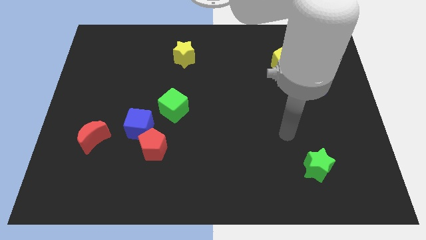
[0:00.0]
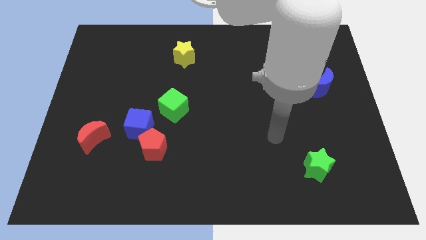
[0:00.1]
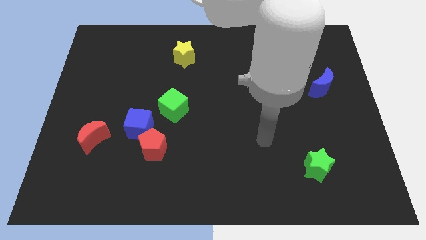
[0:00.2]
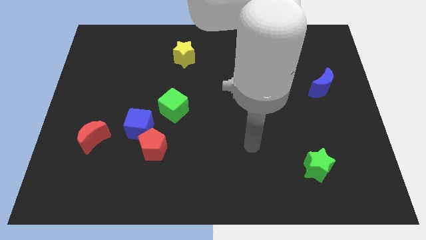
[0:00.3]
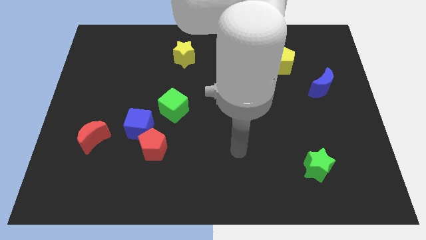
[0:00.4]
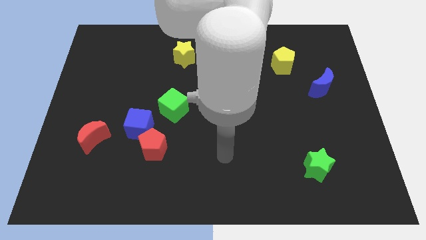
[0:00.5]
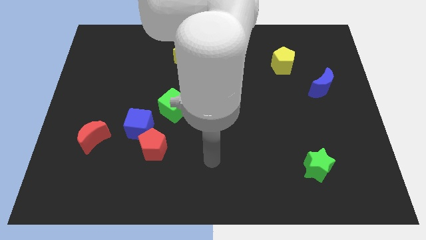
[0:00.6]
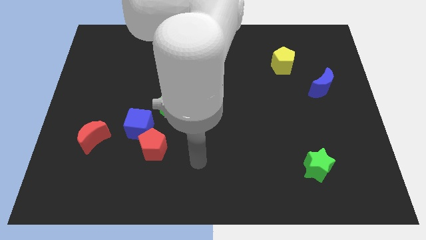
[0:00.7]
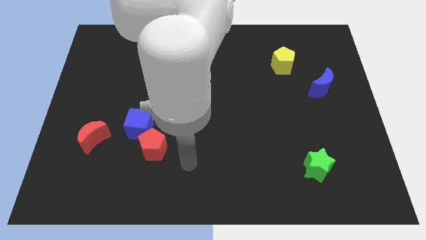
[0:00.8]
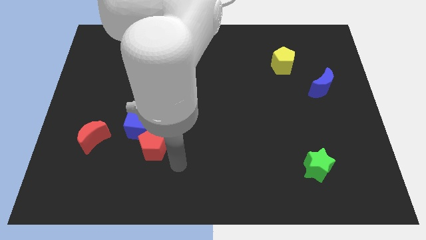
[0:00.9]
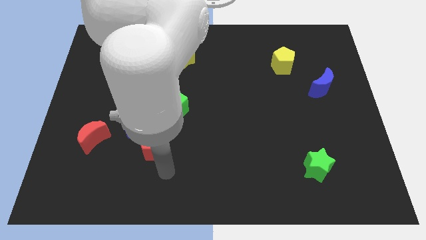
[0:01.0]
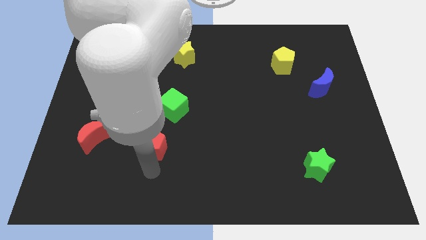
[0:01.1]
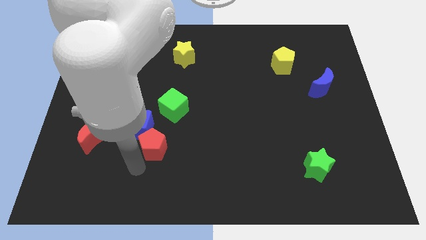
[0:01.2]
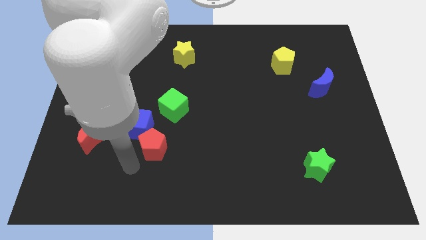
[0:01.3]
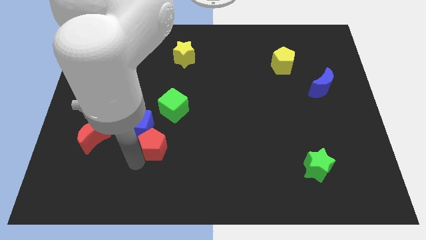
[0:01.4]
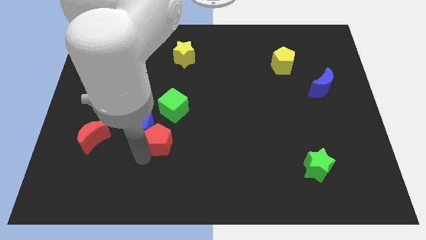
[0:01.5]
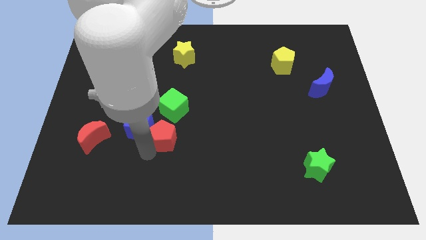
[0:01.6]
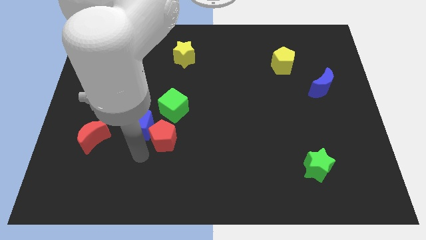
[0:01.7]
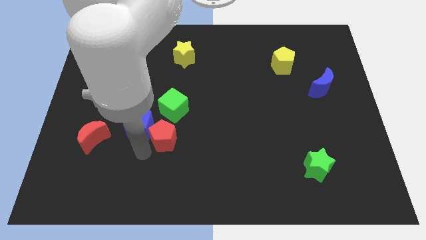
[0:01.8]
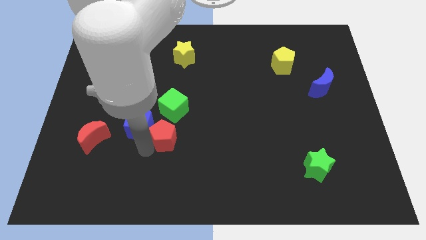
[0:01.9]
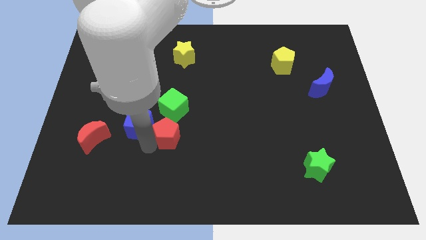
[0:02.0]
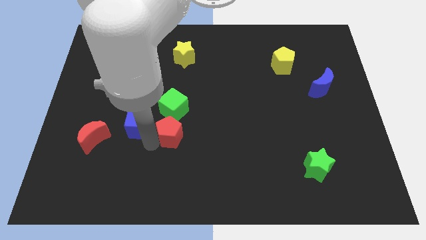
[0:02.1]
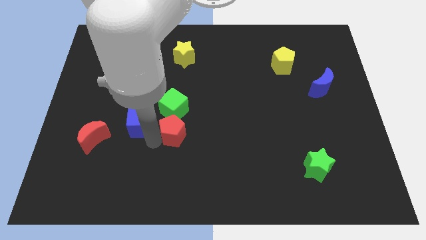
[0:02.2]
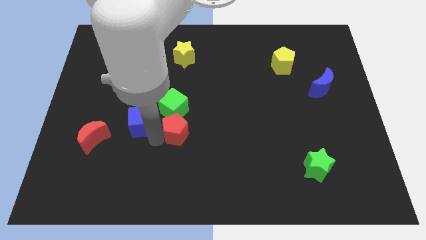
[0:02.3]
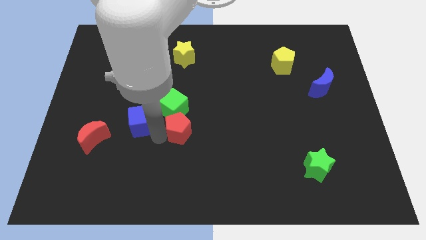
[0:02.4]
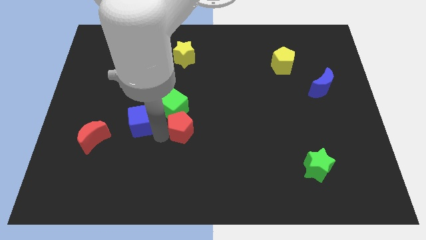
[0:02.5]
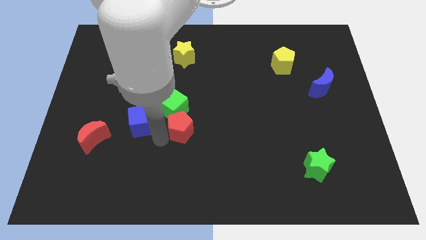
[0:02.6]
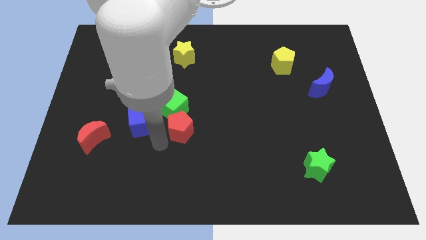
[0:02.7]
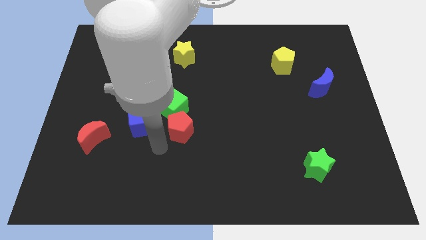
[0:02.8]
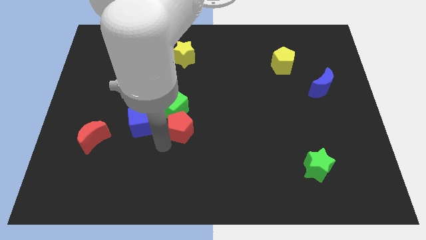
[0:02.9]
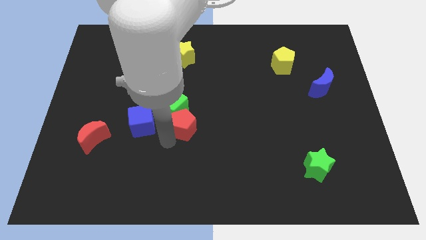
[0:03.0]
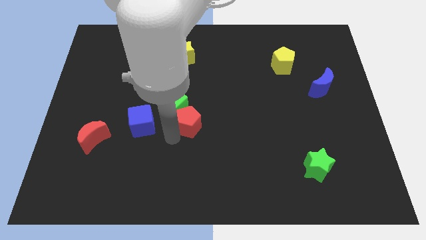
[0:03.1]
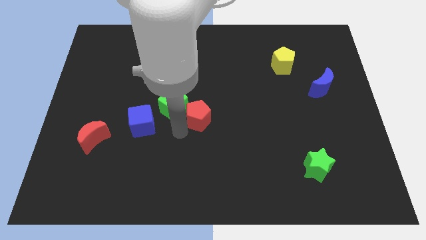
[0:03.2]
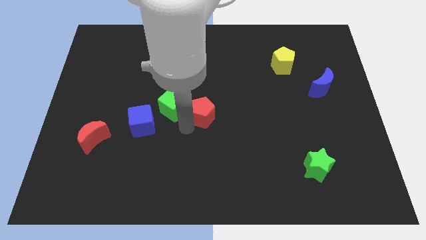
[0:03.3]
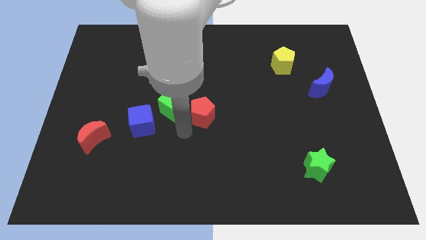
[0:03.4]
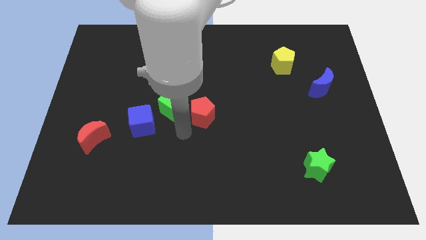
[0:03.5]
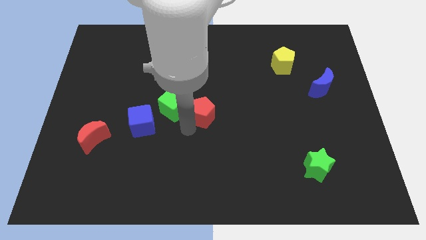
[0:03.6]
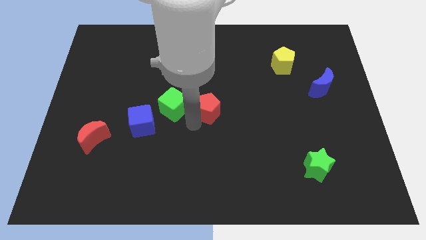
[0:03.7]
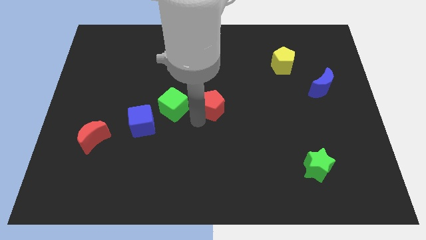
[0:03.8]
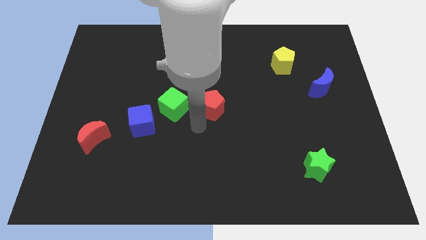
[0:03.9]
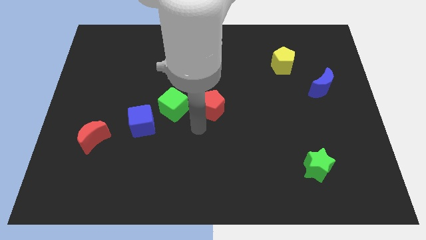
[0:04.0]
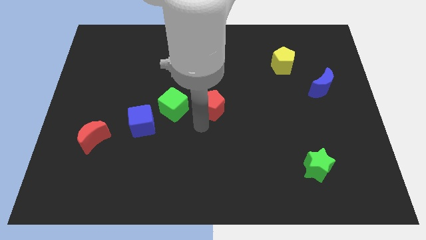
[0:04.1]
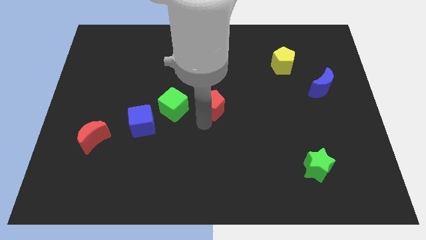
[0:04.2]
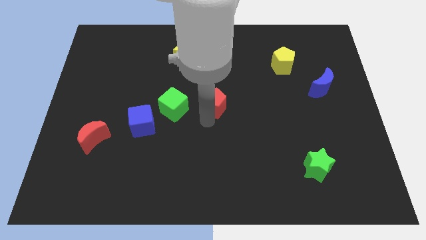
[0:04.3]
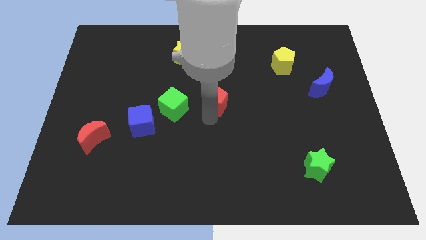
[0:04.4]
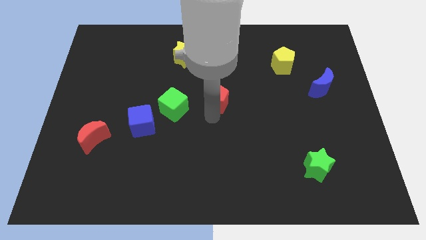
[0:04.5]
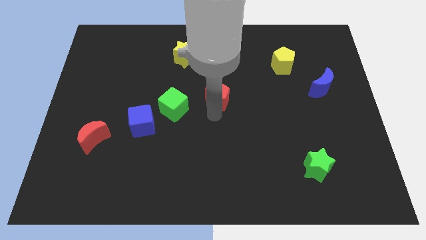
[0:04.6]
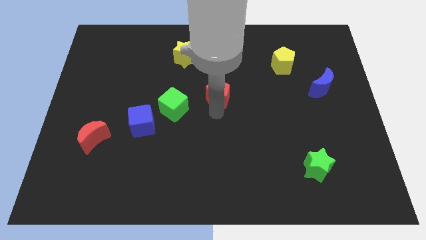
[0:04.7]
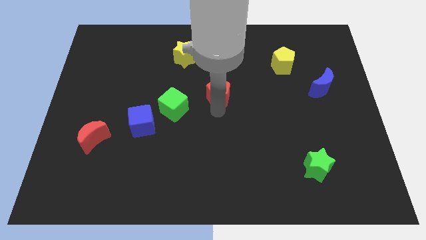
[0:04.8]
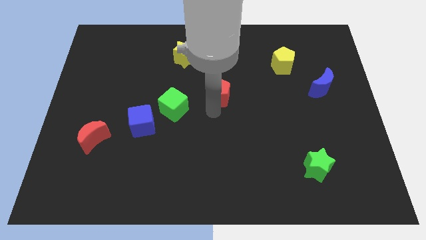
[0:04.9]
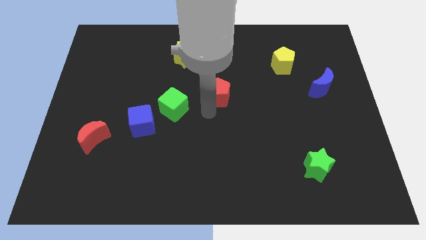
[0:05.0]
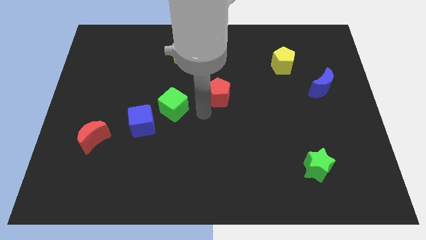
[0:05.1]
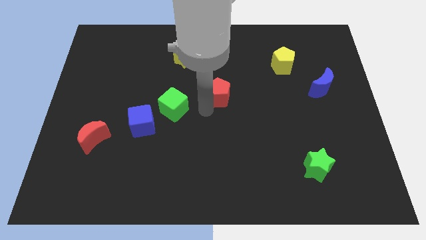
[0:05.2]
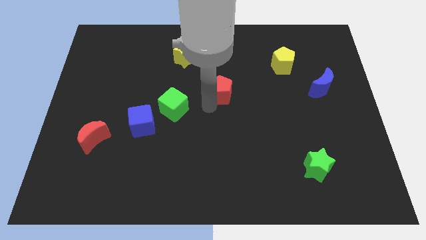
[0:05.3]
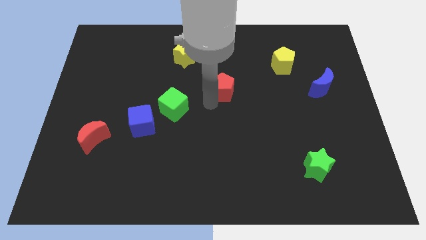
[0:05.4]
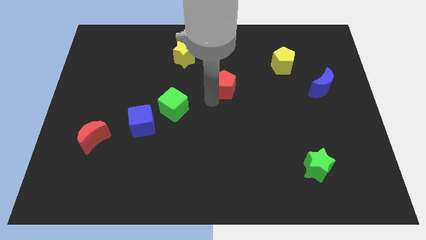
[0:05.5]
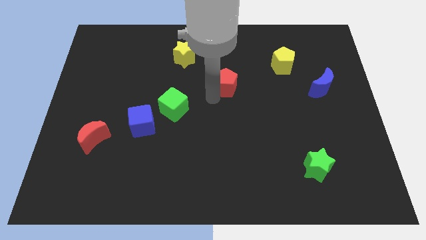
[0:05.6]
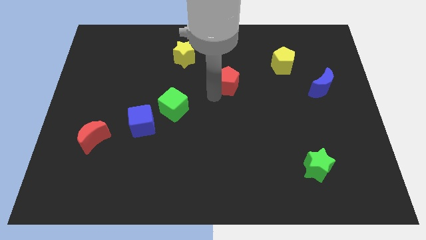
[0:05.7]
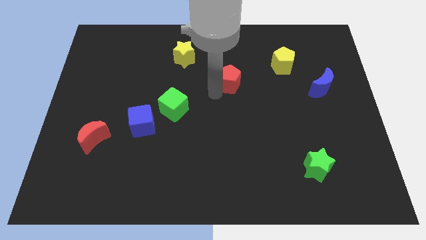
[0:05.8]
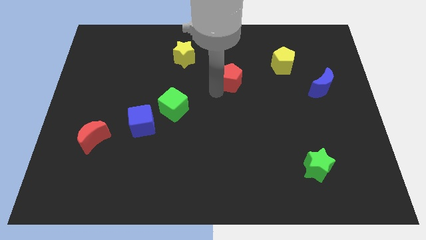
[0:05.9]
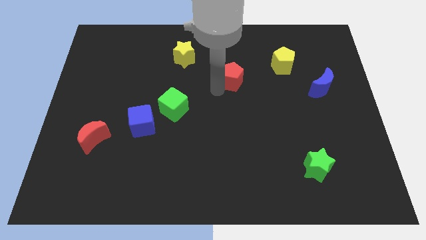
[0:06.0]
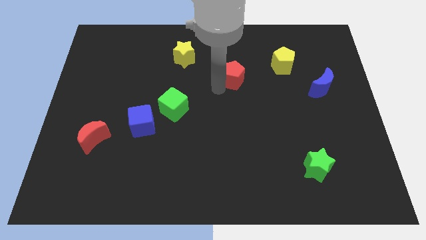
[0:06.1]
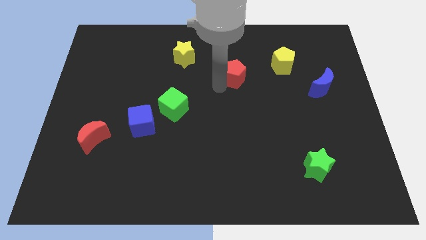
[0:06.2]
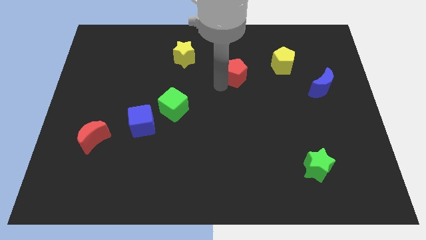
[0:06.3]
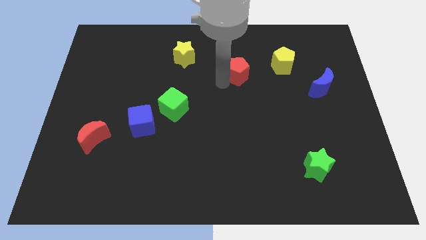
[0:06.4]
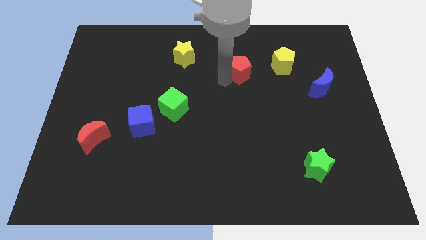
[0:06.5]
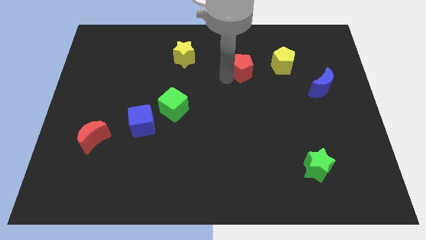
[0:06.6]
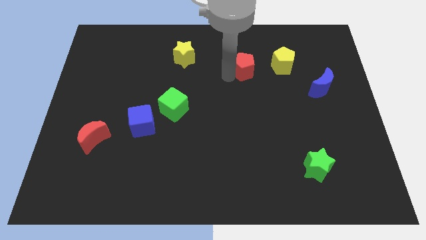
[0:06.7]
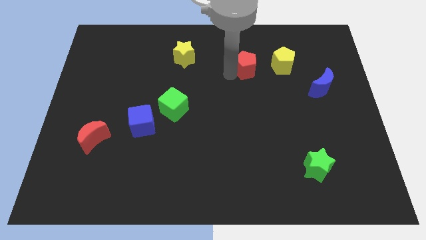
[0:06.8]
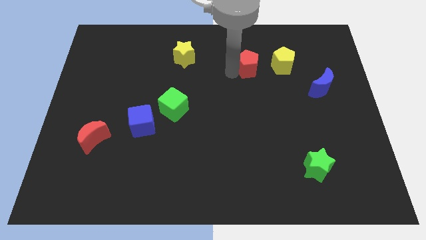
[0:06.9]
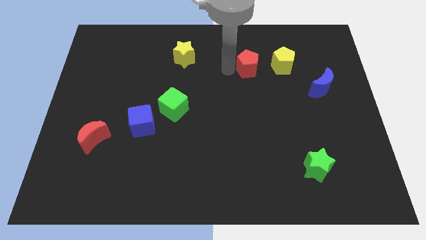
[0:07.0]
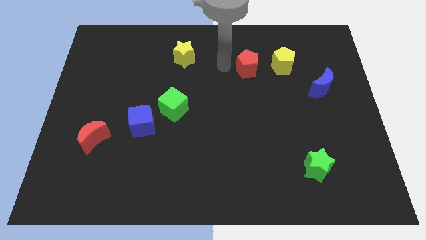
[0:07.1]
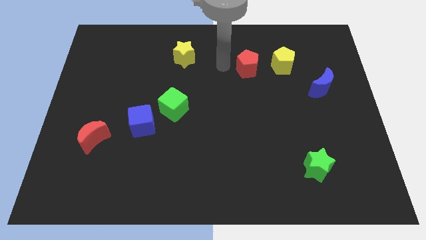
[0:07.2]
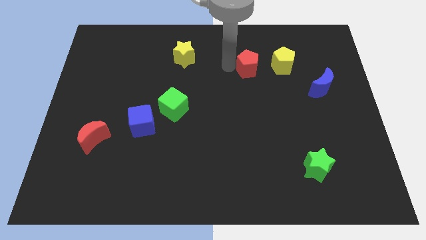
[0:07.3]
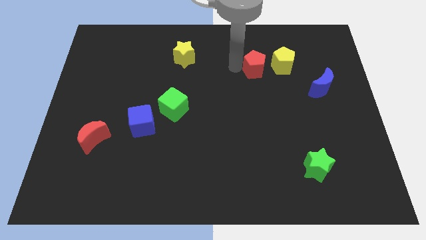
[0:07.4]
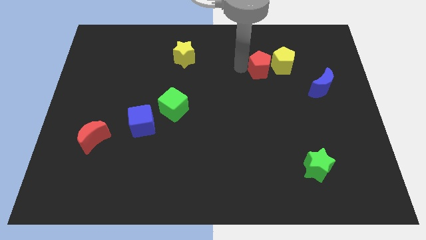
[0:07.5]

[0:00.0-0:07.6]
move the red pentagon towards the yellow pentagon
